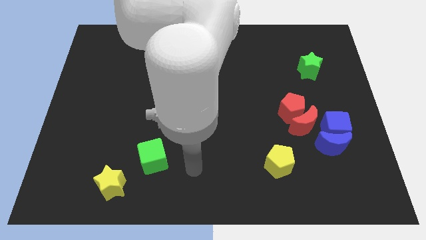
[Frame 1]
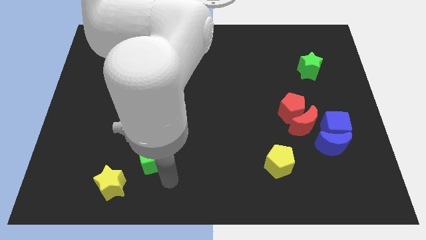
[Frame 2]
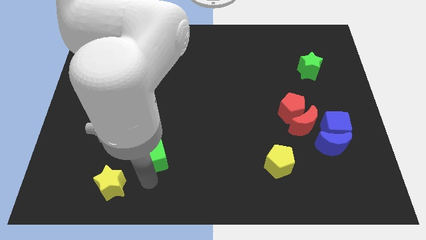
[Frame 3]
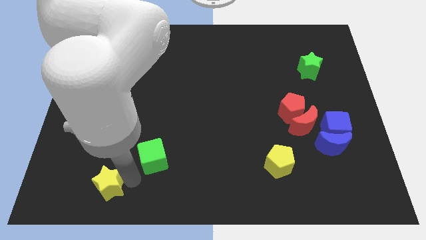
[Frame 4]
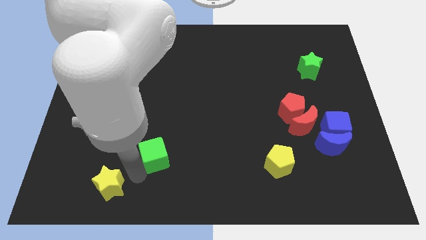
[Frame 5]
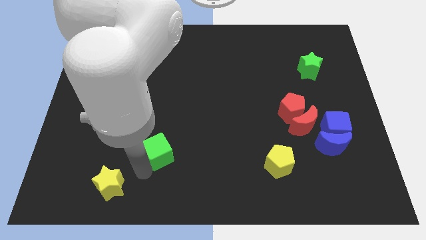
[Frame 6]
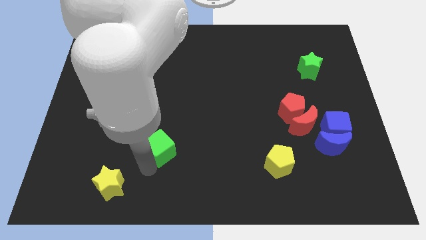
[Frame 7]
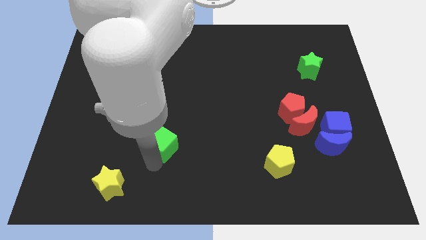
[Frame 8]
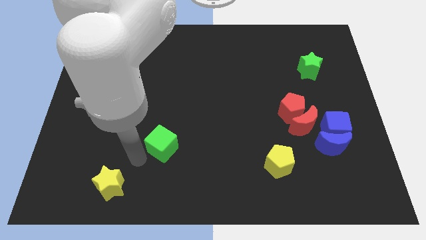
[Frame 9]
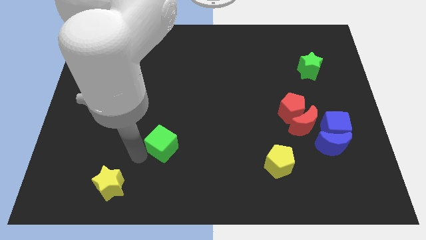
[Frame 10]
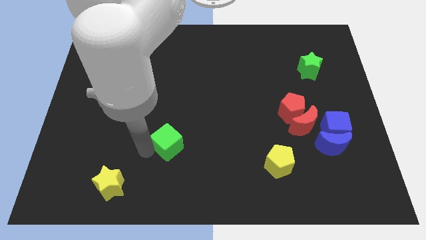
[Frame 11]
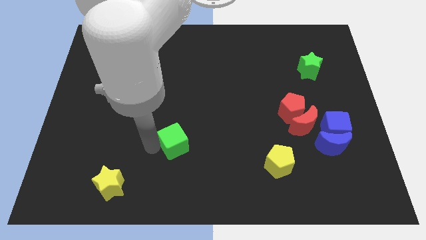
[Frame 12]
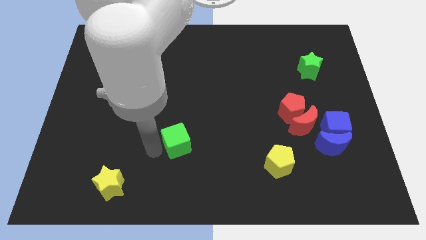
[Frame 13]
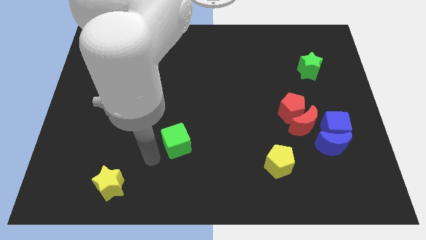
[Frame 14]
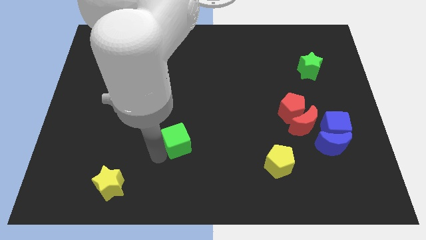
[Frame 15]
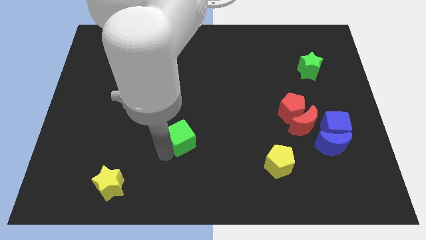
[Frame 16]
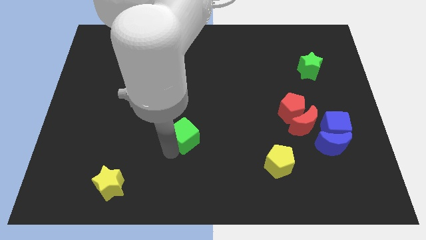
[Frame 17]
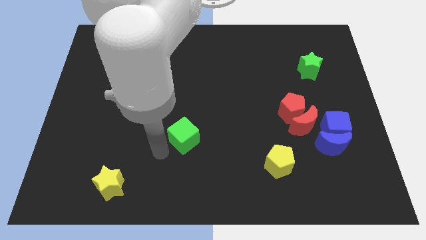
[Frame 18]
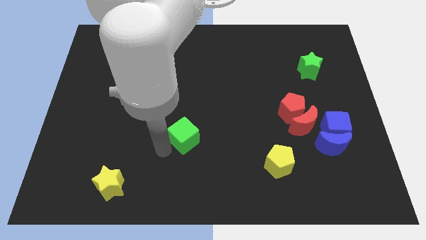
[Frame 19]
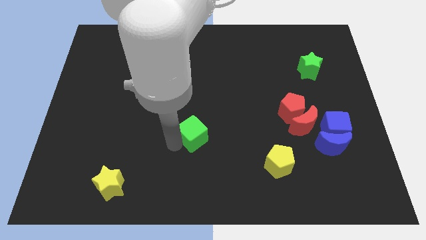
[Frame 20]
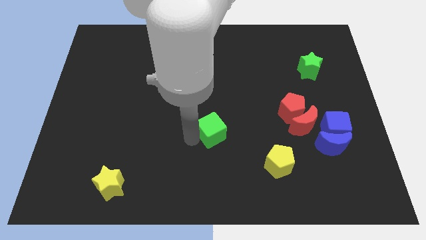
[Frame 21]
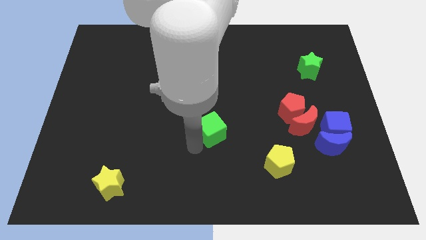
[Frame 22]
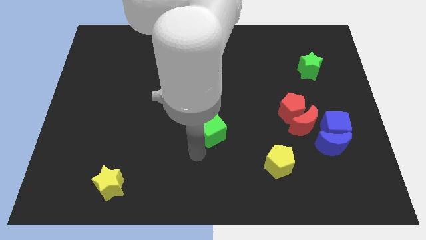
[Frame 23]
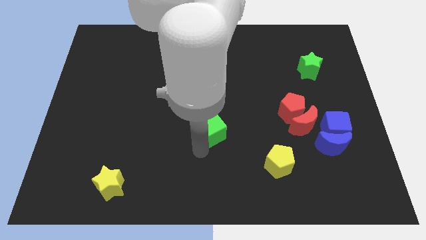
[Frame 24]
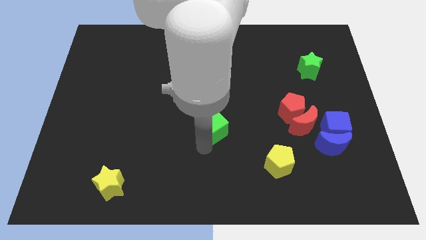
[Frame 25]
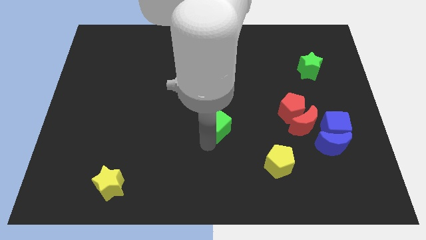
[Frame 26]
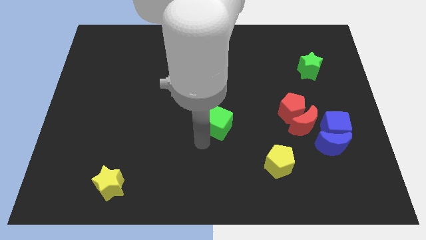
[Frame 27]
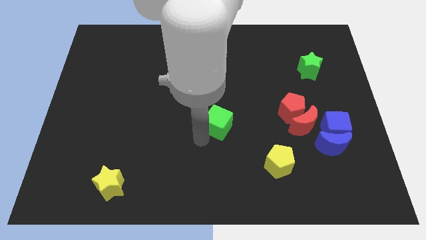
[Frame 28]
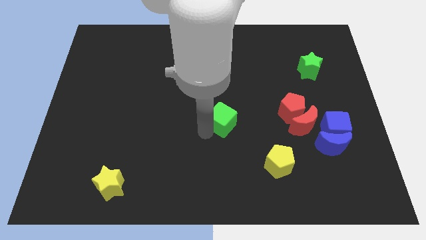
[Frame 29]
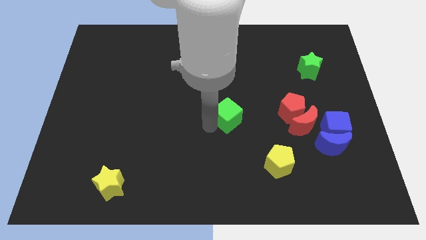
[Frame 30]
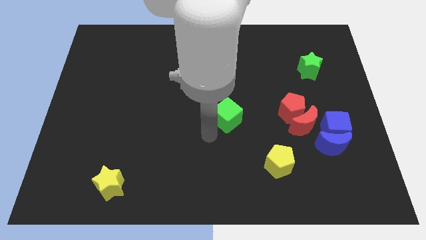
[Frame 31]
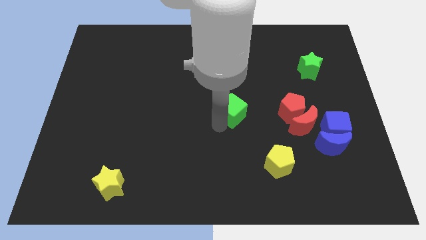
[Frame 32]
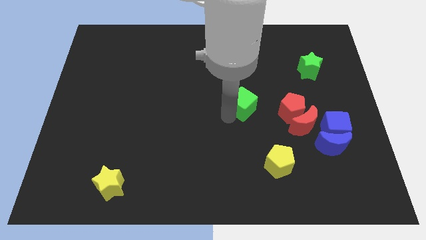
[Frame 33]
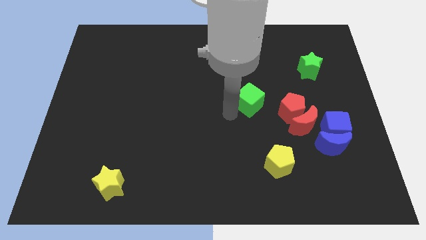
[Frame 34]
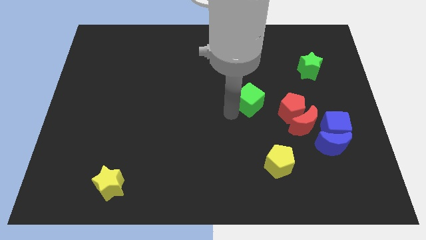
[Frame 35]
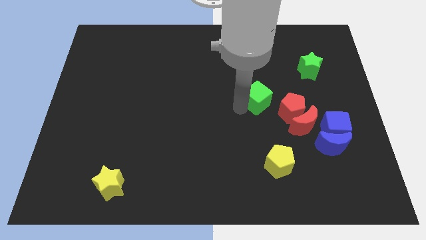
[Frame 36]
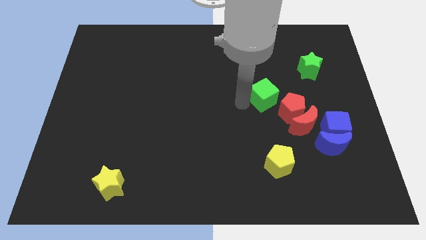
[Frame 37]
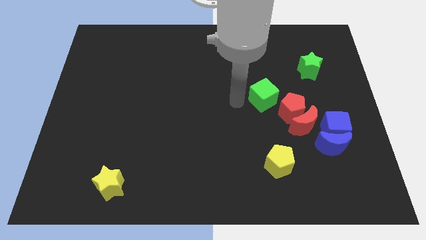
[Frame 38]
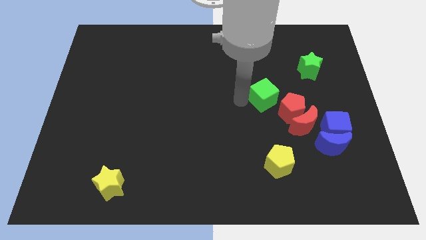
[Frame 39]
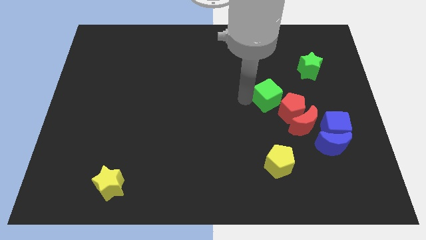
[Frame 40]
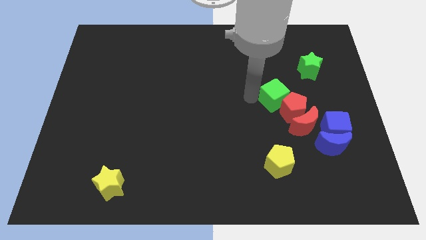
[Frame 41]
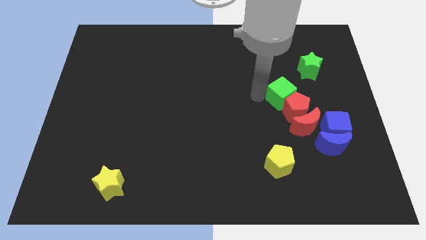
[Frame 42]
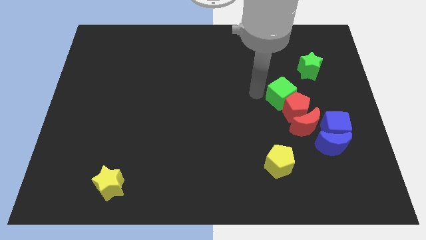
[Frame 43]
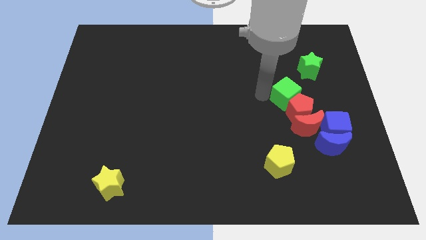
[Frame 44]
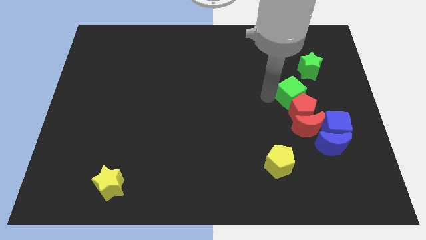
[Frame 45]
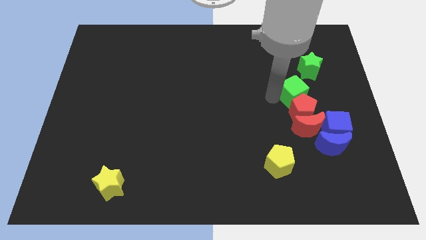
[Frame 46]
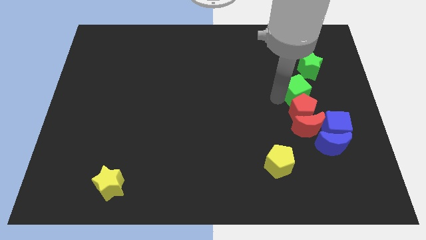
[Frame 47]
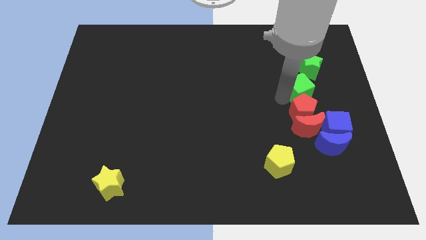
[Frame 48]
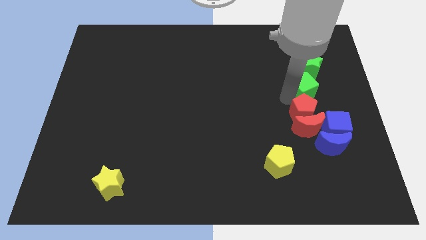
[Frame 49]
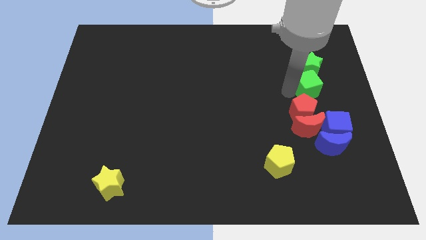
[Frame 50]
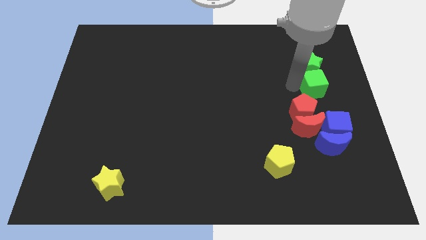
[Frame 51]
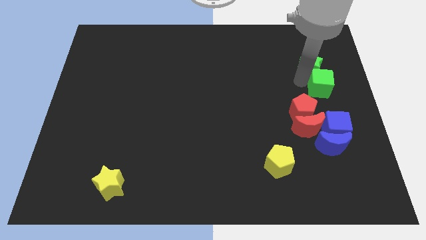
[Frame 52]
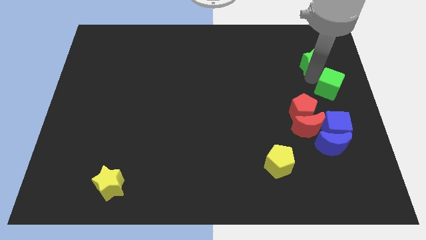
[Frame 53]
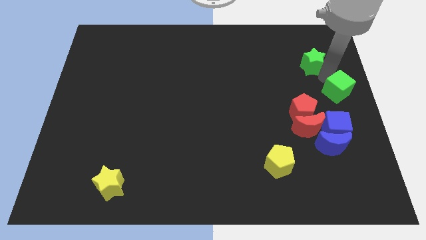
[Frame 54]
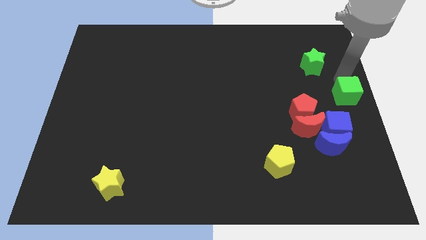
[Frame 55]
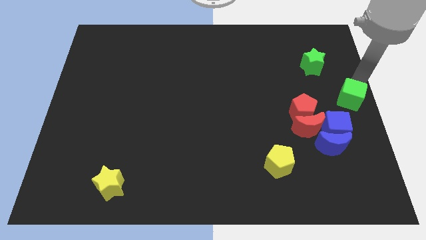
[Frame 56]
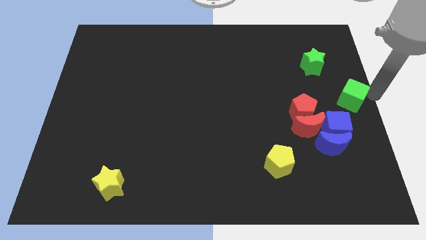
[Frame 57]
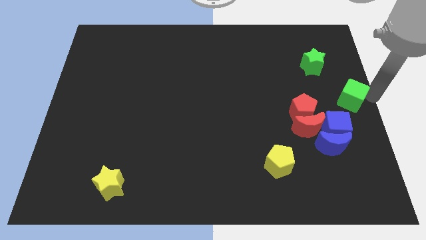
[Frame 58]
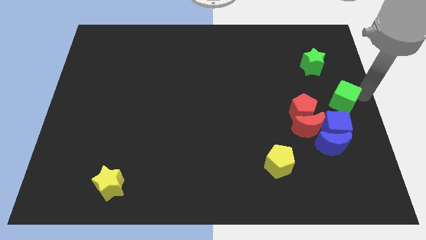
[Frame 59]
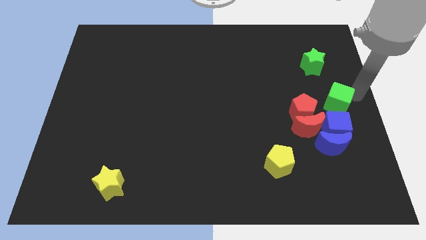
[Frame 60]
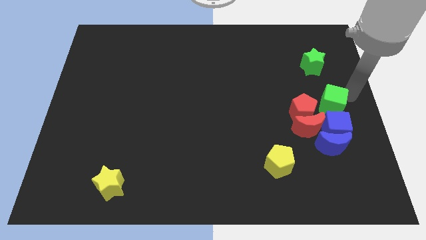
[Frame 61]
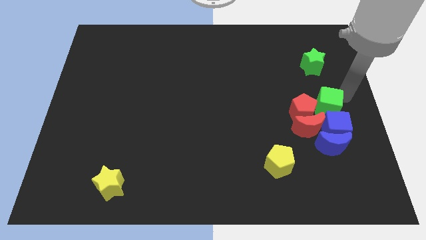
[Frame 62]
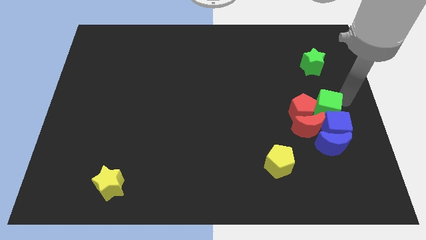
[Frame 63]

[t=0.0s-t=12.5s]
put the green cube next to the blue cube

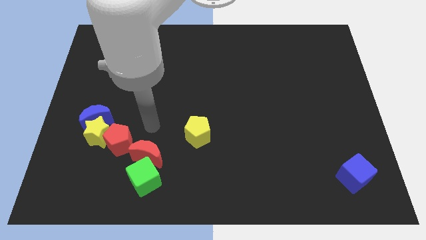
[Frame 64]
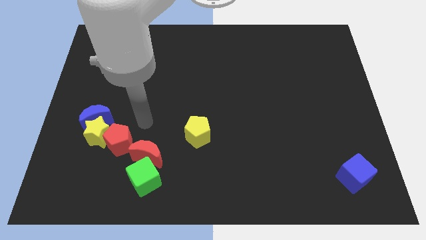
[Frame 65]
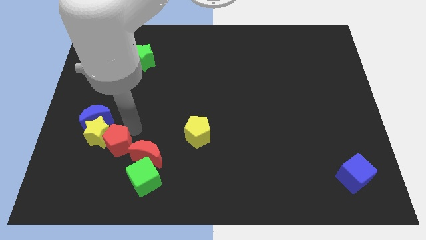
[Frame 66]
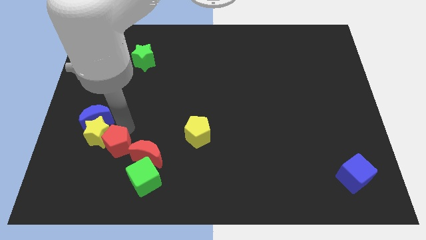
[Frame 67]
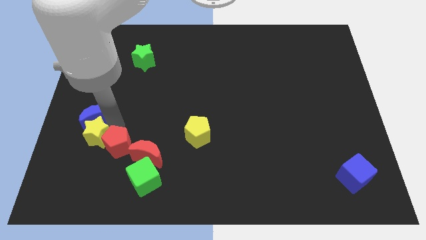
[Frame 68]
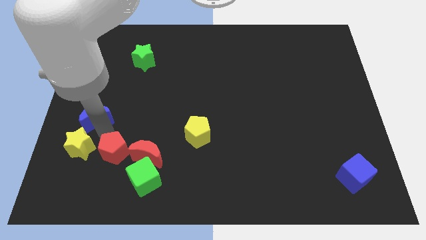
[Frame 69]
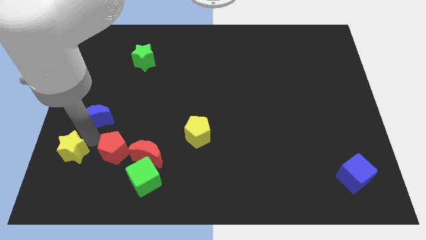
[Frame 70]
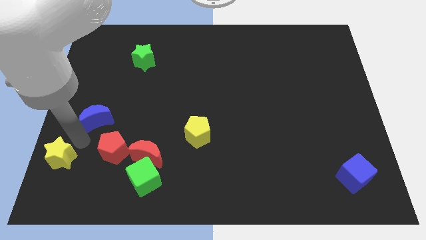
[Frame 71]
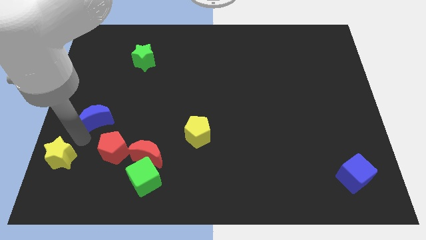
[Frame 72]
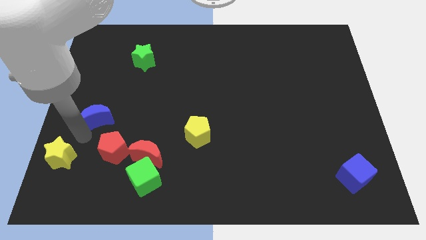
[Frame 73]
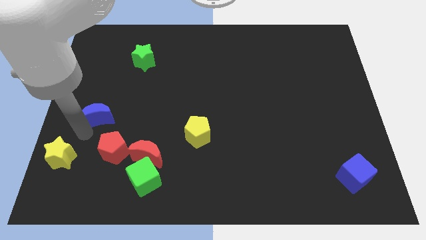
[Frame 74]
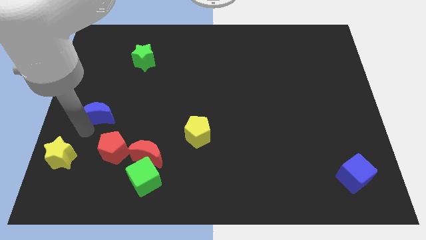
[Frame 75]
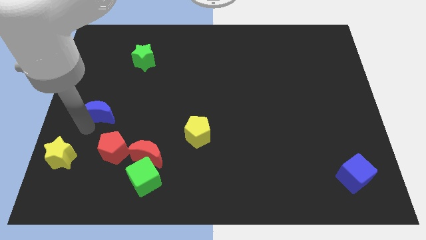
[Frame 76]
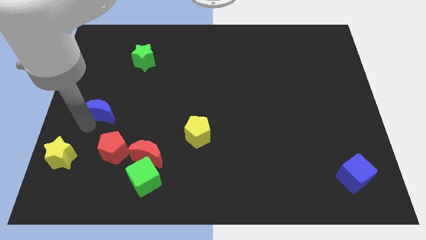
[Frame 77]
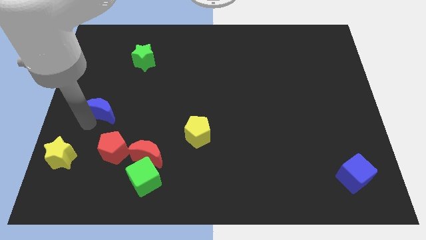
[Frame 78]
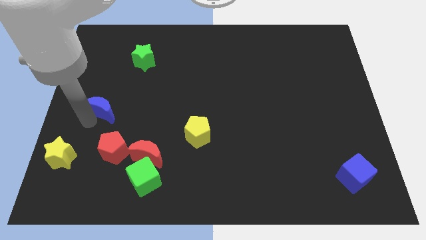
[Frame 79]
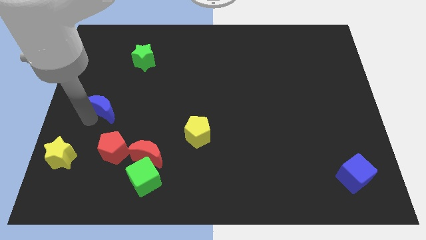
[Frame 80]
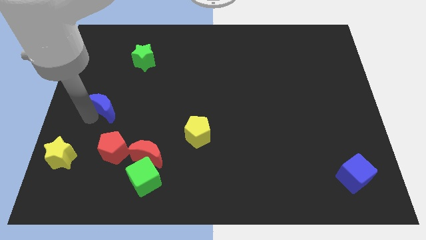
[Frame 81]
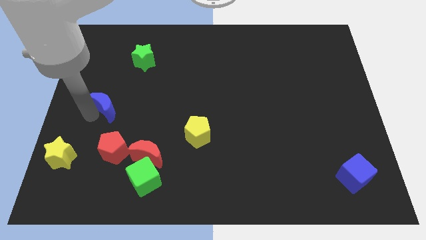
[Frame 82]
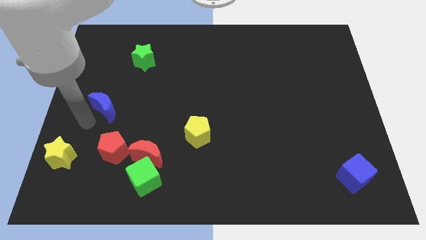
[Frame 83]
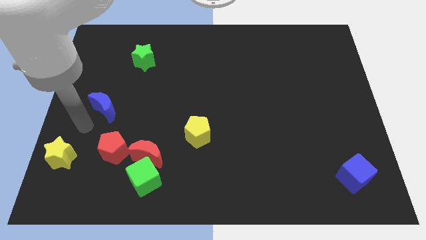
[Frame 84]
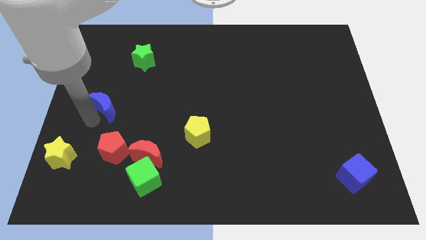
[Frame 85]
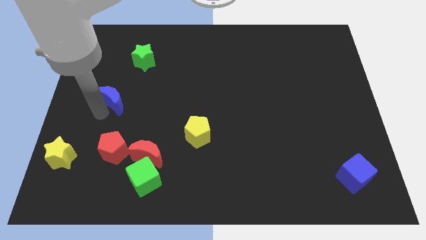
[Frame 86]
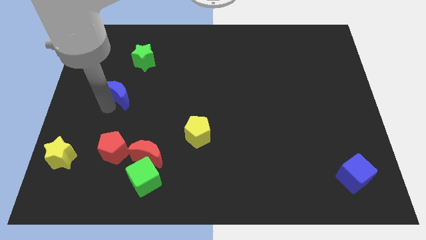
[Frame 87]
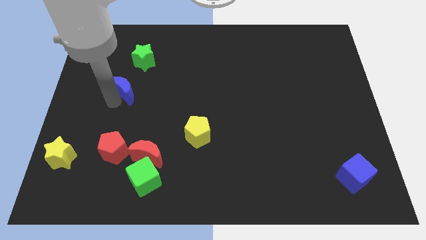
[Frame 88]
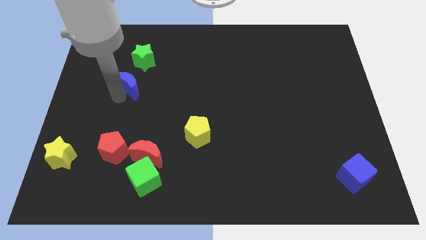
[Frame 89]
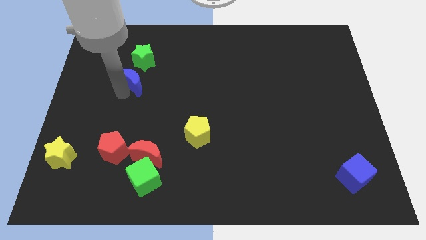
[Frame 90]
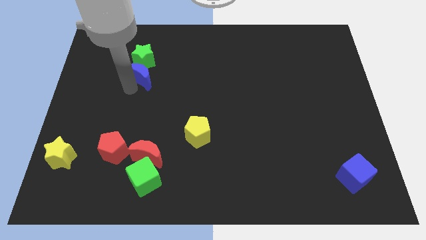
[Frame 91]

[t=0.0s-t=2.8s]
move the blue moon next to the green star
